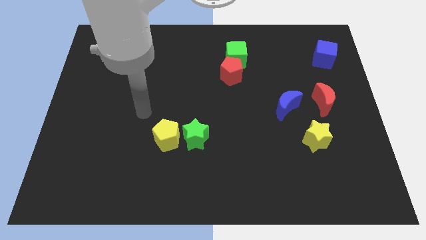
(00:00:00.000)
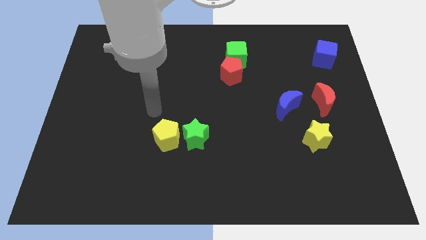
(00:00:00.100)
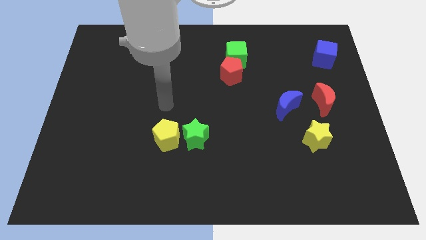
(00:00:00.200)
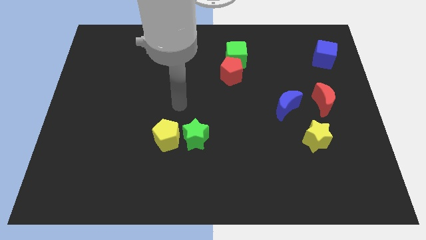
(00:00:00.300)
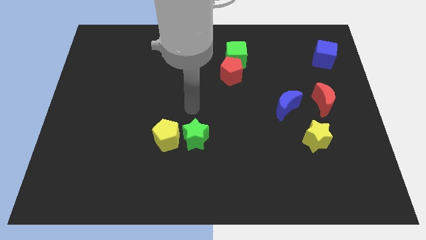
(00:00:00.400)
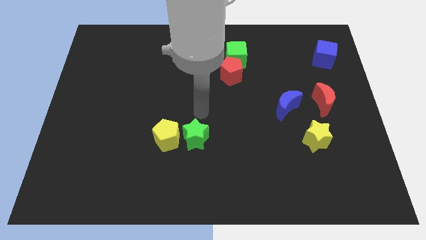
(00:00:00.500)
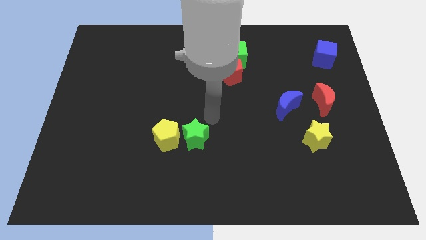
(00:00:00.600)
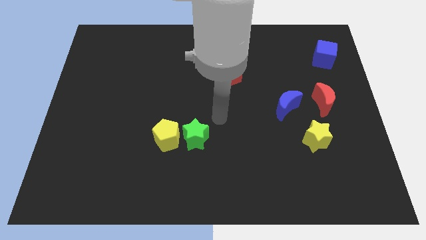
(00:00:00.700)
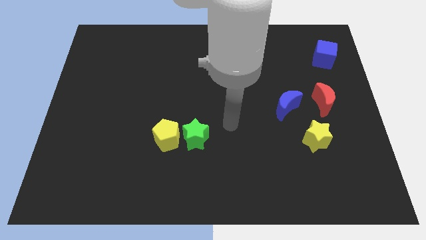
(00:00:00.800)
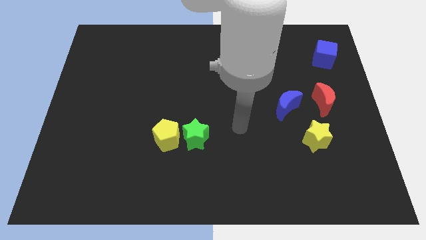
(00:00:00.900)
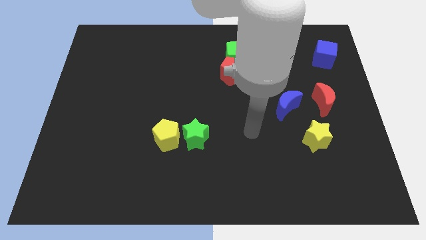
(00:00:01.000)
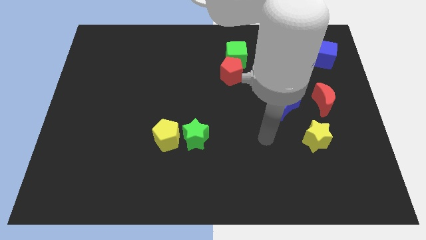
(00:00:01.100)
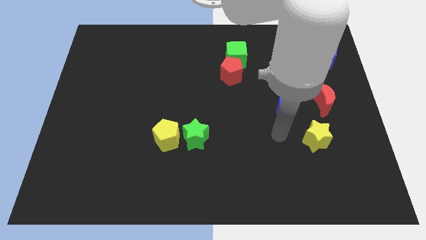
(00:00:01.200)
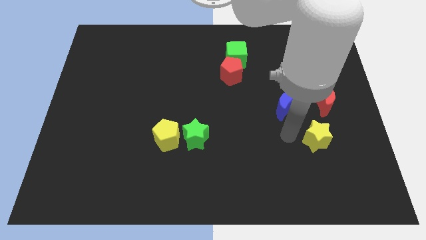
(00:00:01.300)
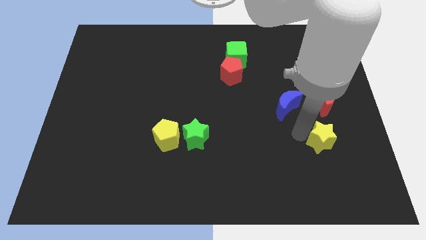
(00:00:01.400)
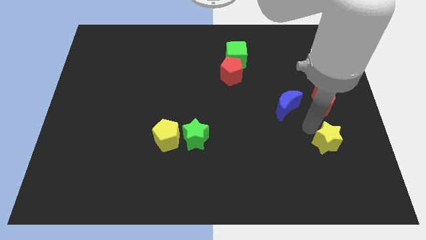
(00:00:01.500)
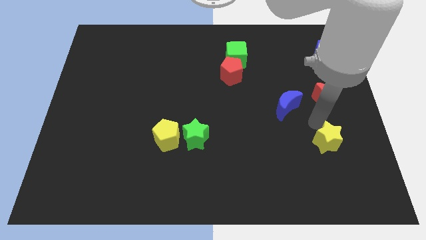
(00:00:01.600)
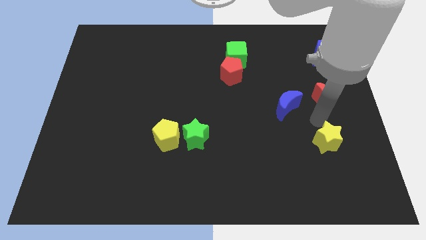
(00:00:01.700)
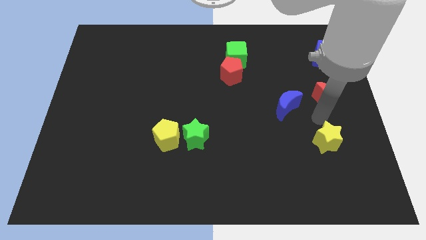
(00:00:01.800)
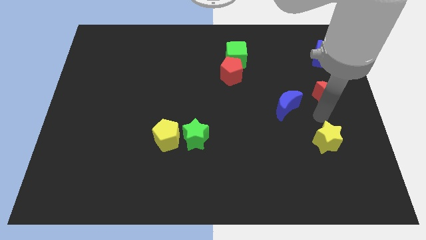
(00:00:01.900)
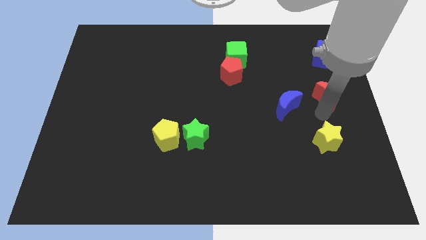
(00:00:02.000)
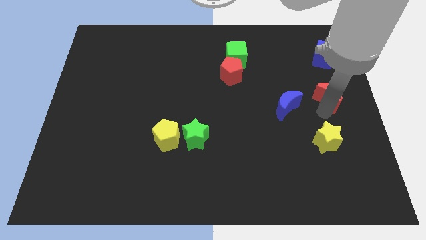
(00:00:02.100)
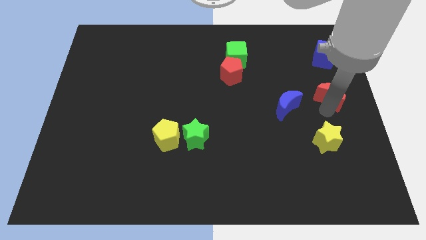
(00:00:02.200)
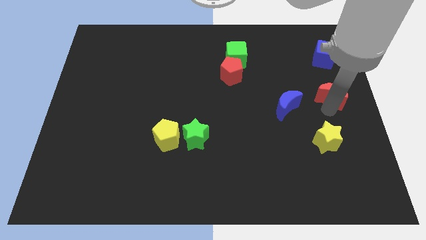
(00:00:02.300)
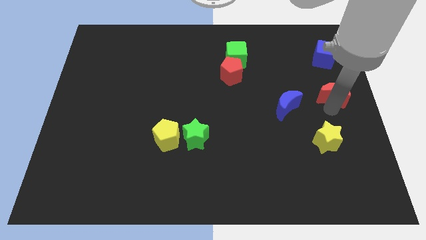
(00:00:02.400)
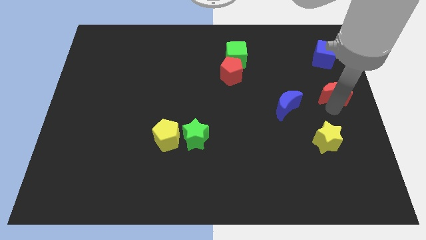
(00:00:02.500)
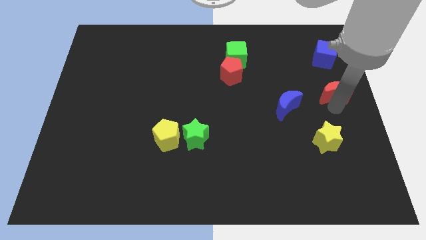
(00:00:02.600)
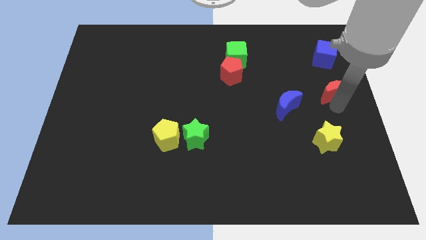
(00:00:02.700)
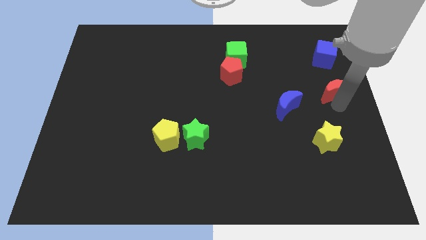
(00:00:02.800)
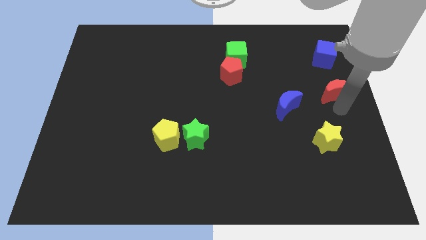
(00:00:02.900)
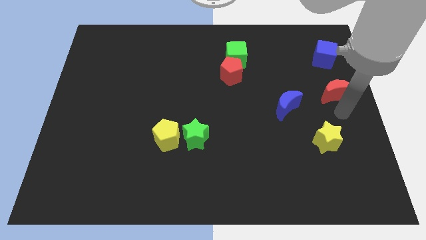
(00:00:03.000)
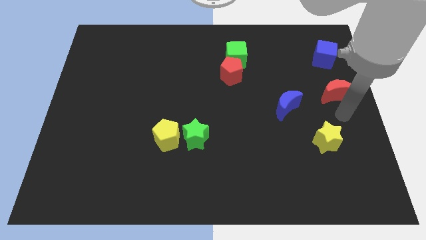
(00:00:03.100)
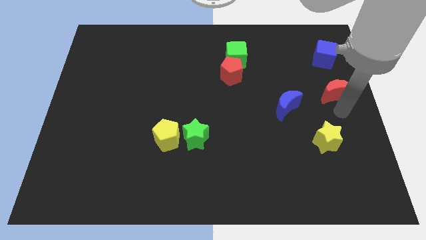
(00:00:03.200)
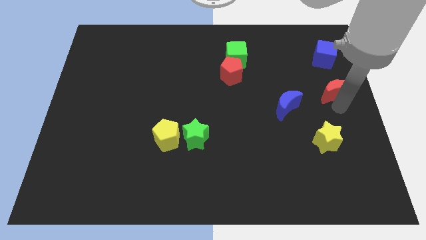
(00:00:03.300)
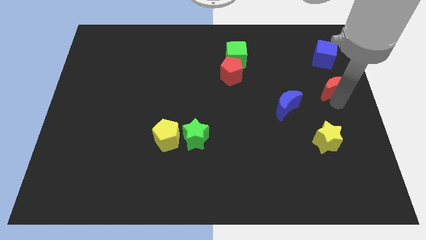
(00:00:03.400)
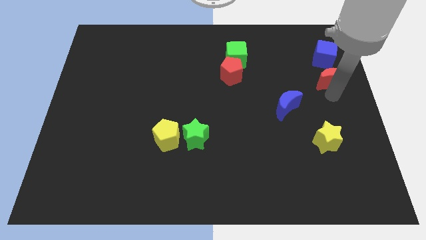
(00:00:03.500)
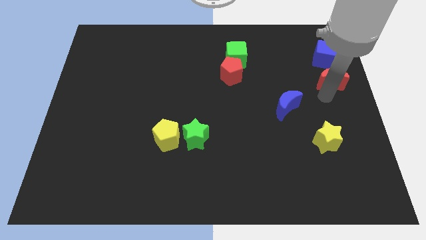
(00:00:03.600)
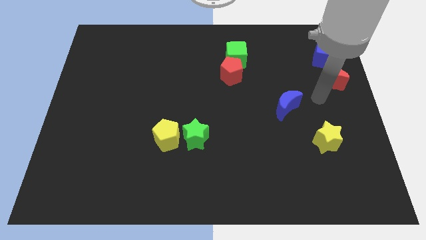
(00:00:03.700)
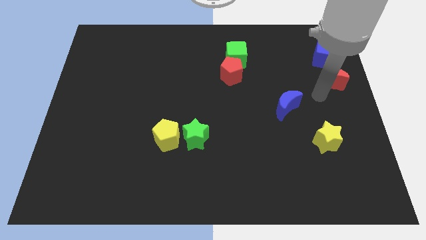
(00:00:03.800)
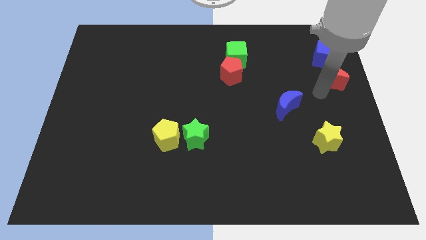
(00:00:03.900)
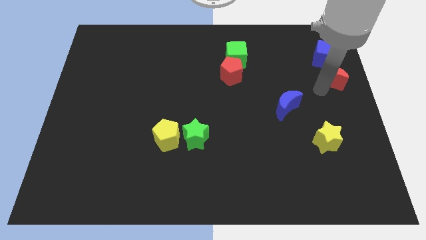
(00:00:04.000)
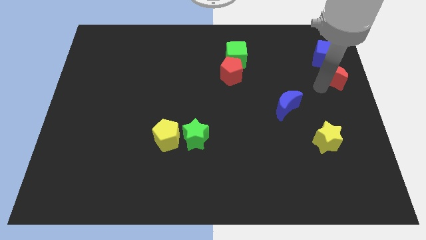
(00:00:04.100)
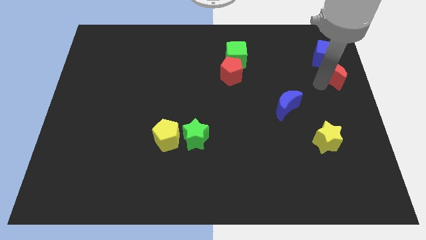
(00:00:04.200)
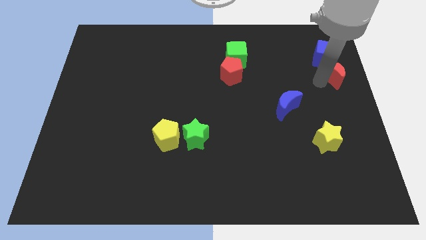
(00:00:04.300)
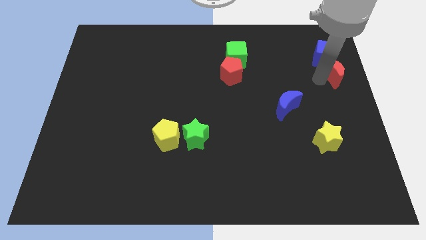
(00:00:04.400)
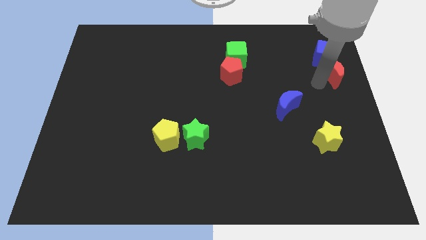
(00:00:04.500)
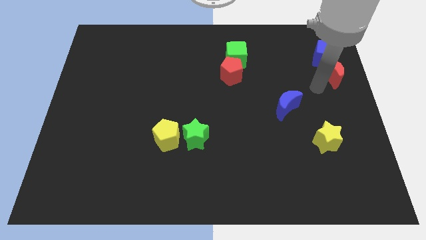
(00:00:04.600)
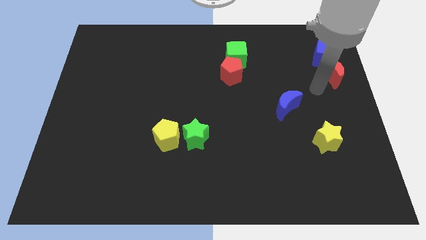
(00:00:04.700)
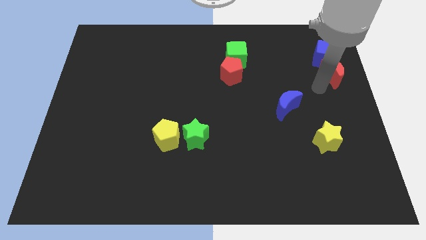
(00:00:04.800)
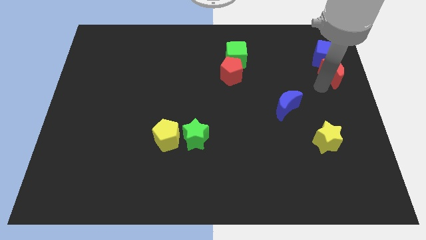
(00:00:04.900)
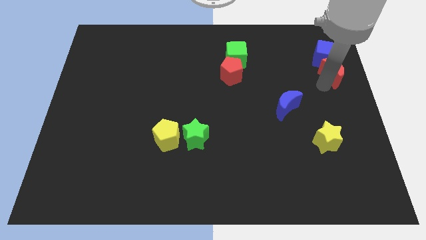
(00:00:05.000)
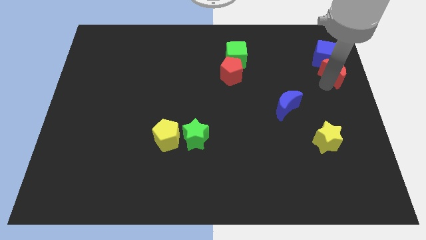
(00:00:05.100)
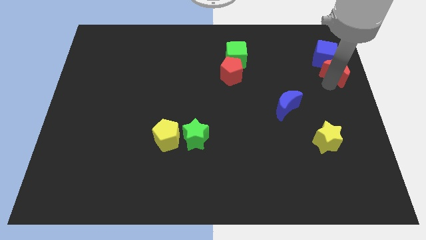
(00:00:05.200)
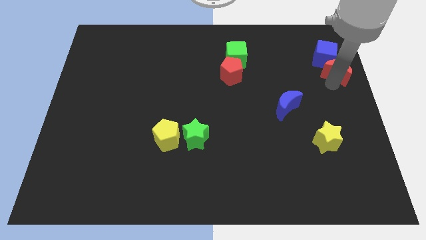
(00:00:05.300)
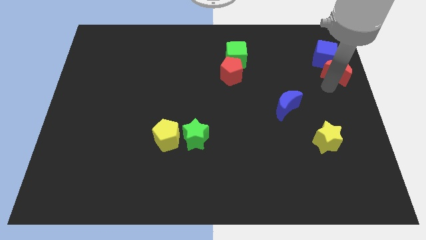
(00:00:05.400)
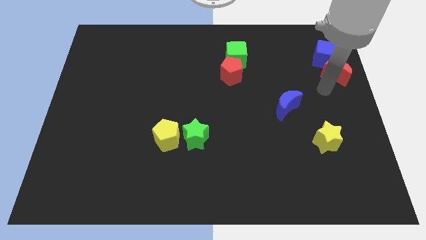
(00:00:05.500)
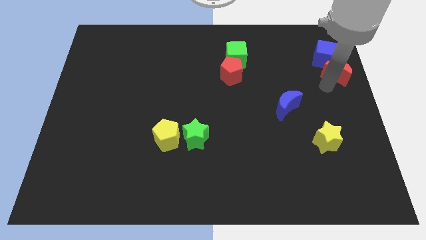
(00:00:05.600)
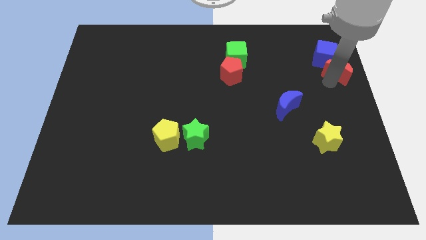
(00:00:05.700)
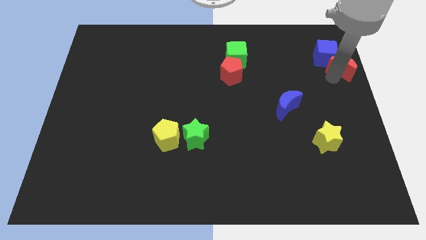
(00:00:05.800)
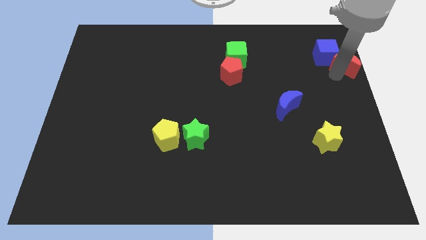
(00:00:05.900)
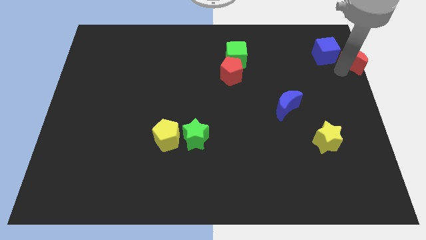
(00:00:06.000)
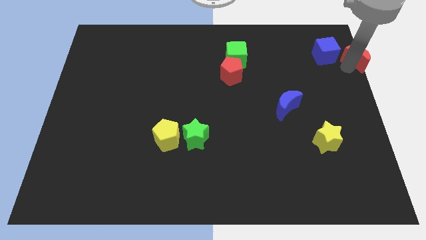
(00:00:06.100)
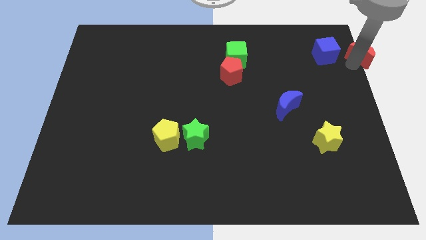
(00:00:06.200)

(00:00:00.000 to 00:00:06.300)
slide the red moon to the top right corner

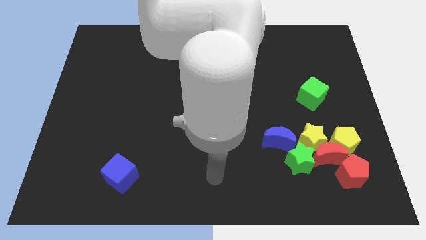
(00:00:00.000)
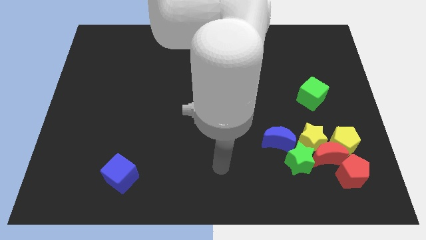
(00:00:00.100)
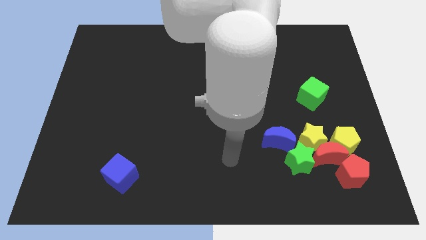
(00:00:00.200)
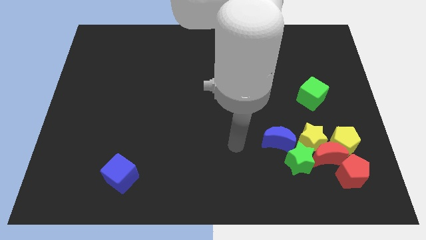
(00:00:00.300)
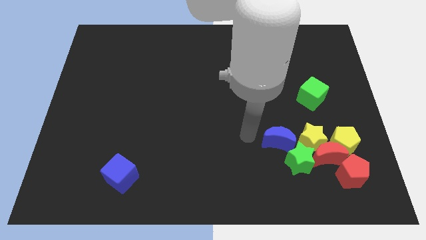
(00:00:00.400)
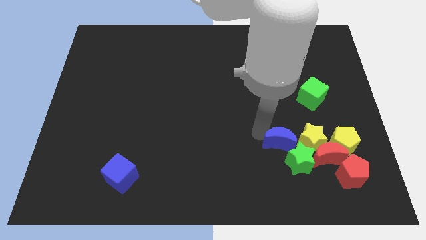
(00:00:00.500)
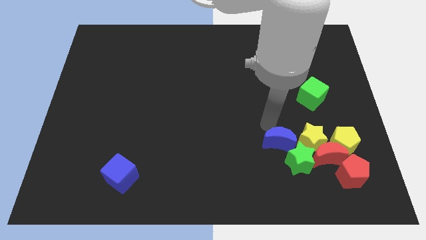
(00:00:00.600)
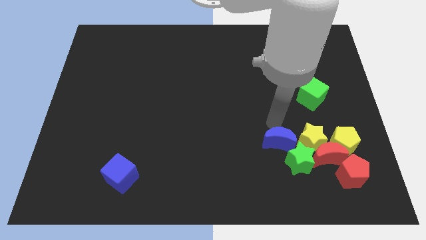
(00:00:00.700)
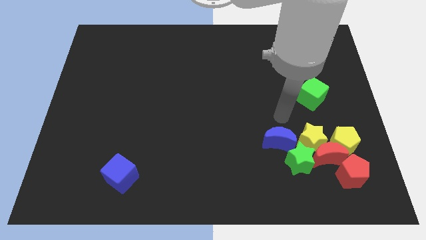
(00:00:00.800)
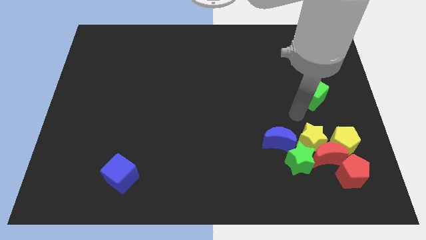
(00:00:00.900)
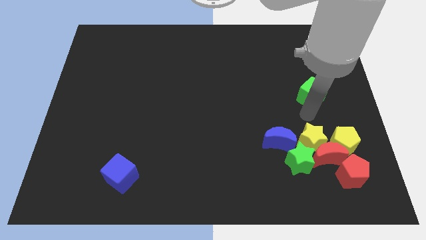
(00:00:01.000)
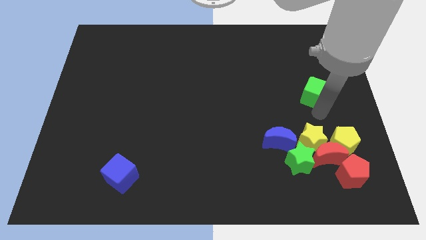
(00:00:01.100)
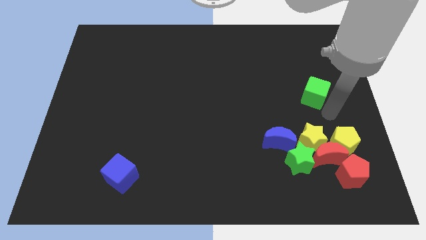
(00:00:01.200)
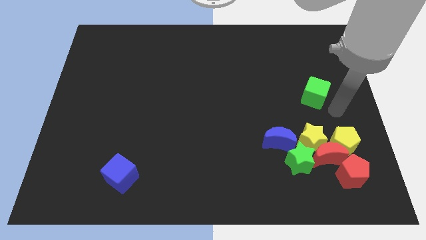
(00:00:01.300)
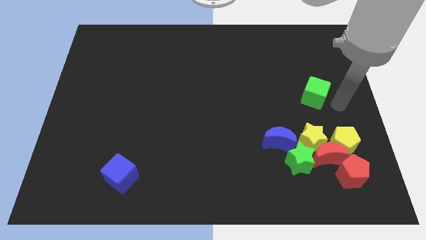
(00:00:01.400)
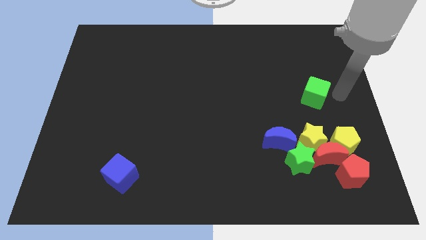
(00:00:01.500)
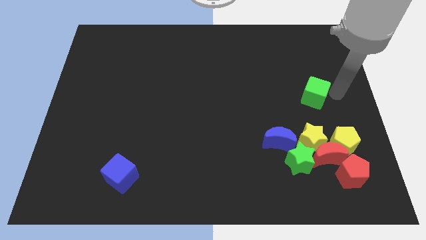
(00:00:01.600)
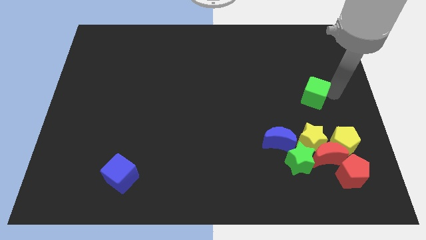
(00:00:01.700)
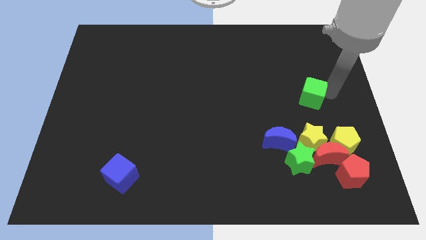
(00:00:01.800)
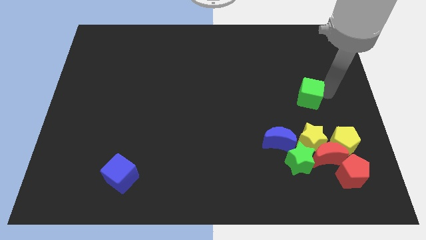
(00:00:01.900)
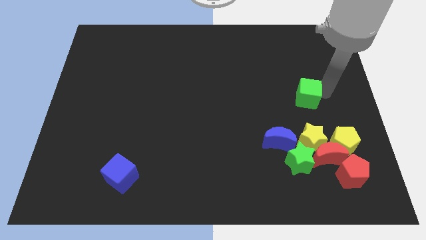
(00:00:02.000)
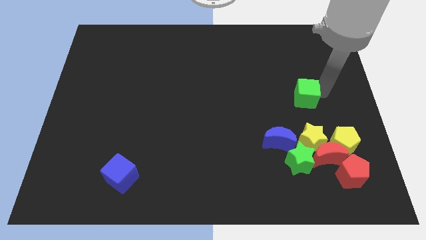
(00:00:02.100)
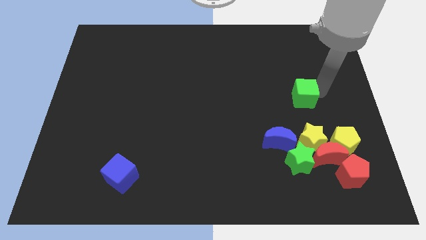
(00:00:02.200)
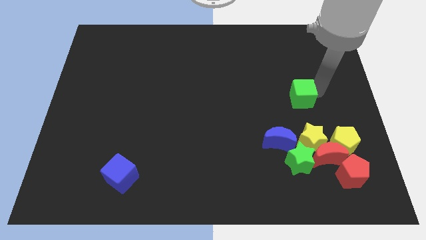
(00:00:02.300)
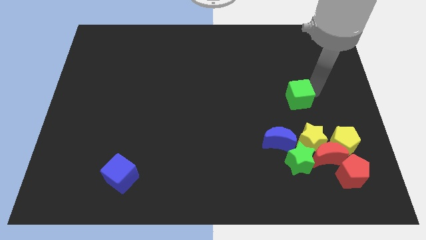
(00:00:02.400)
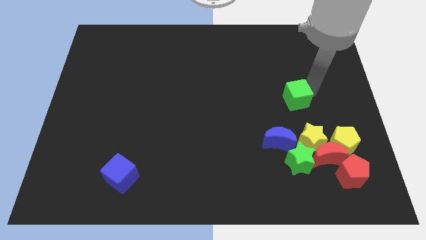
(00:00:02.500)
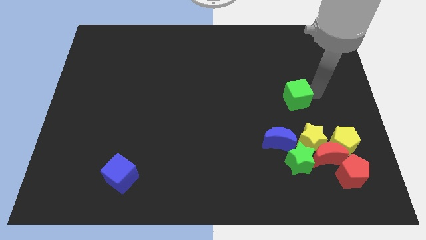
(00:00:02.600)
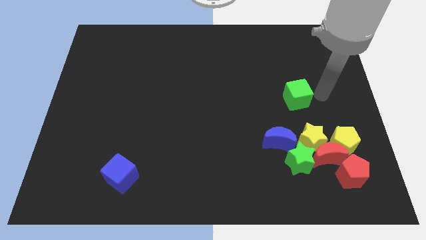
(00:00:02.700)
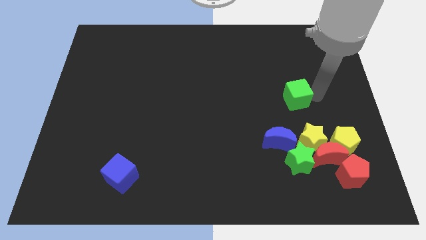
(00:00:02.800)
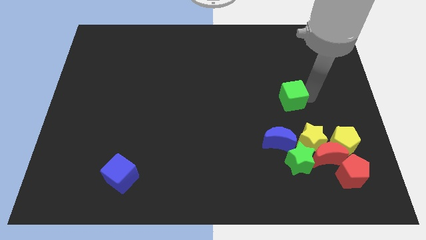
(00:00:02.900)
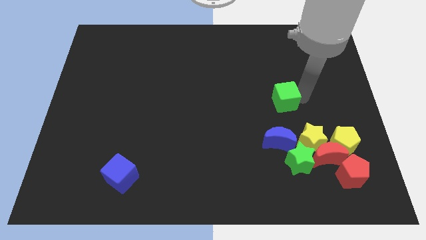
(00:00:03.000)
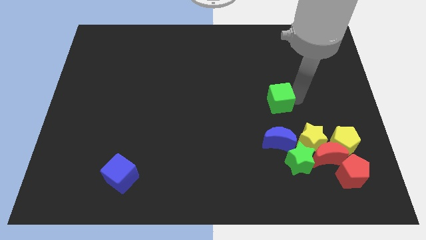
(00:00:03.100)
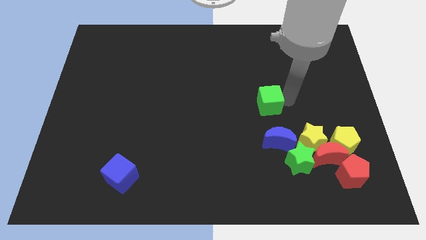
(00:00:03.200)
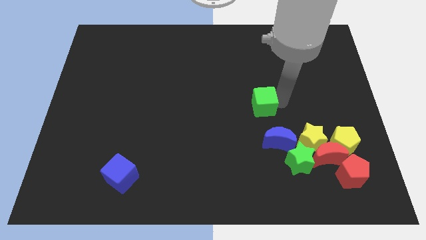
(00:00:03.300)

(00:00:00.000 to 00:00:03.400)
move the green cube to the center of the board
